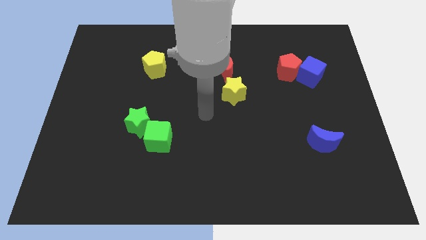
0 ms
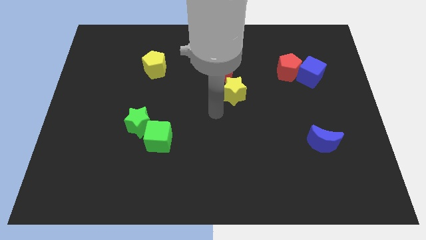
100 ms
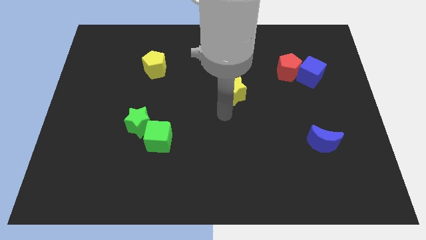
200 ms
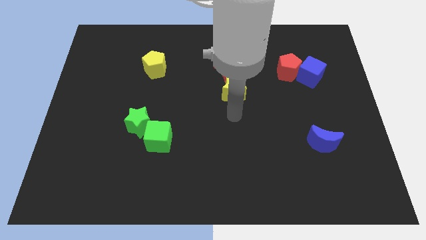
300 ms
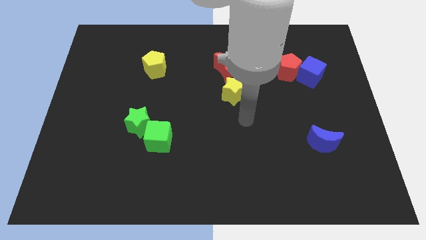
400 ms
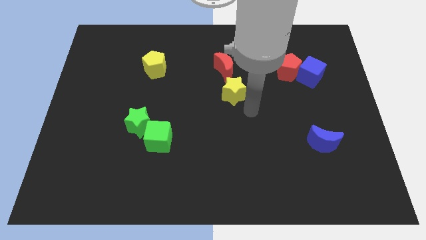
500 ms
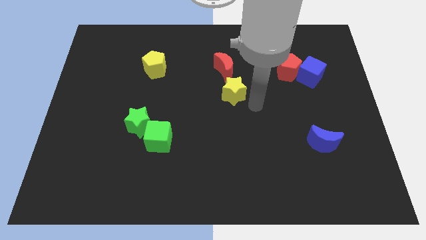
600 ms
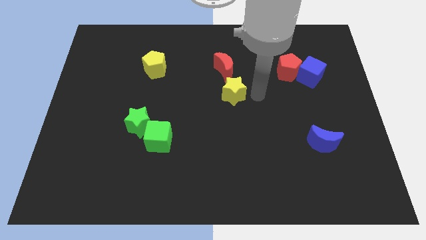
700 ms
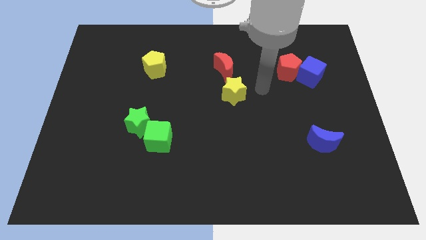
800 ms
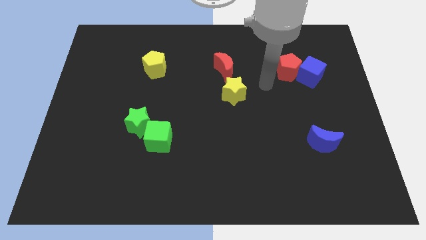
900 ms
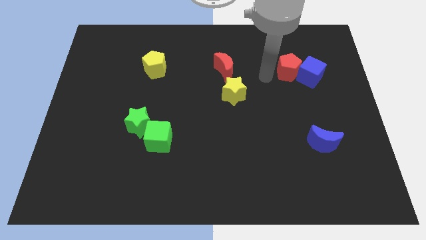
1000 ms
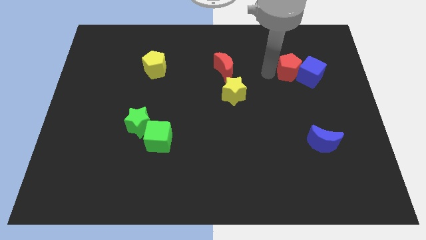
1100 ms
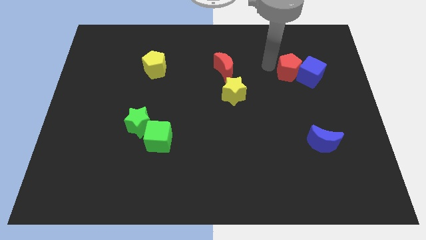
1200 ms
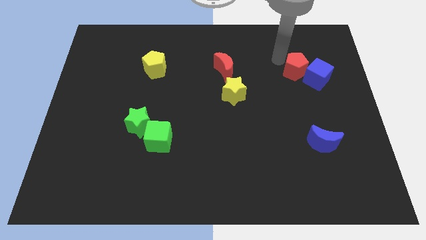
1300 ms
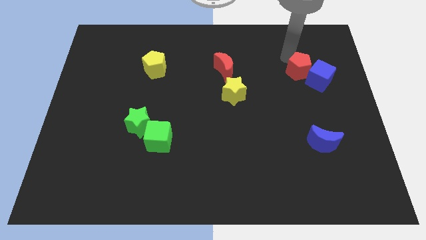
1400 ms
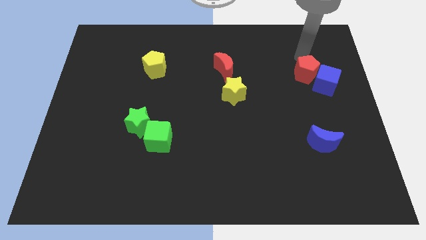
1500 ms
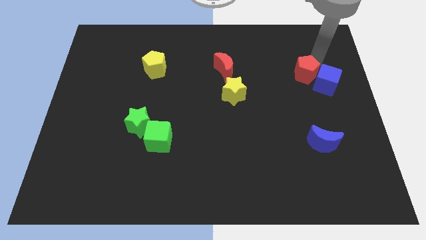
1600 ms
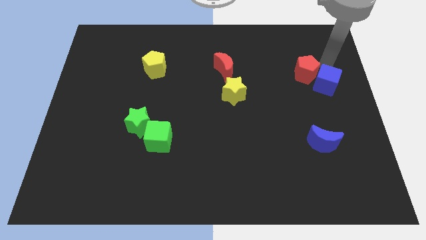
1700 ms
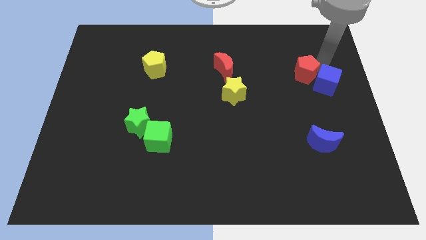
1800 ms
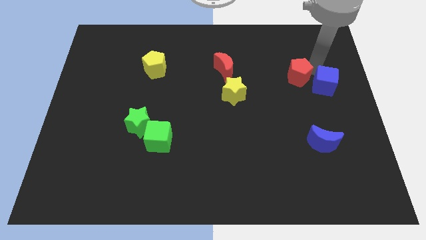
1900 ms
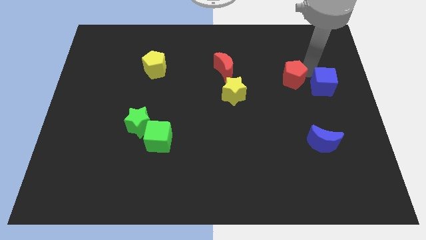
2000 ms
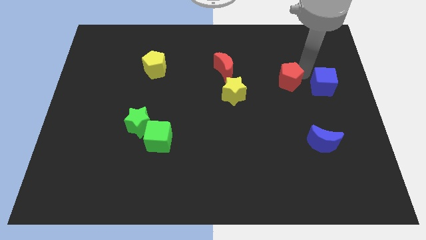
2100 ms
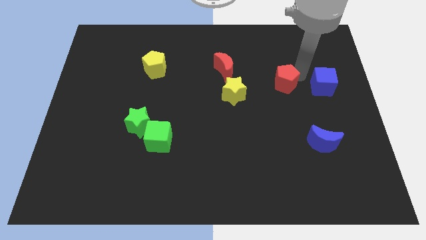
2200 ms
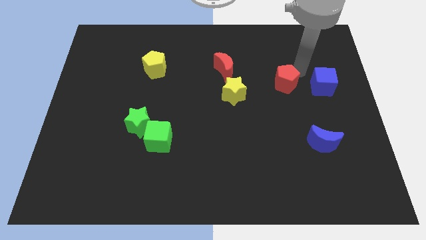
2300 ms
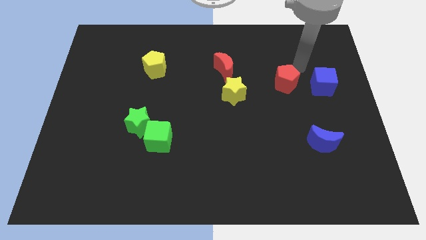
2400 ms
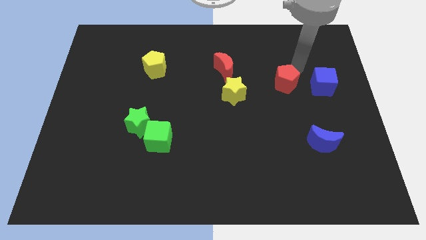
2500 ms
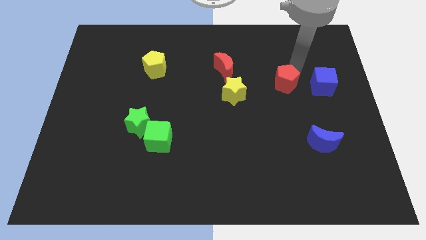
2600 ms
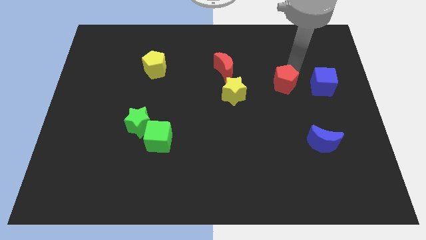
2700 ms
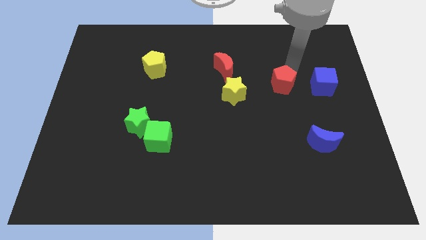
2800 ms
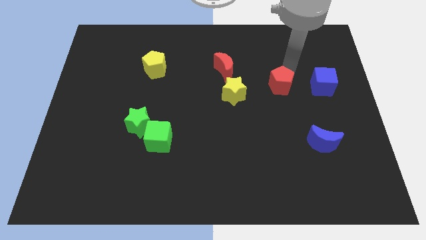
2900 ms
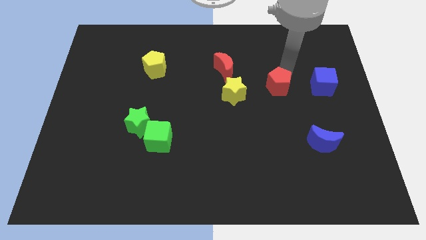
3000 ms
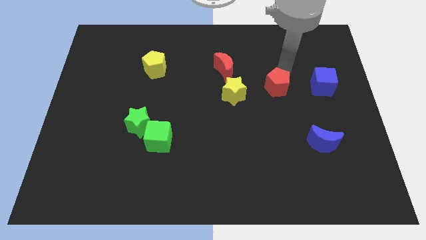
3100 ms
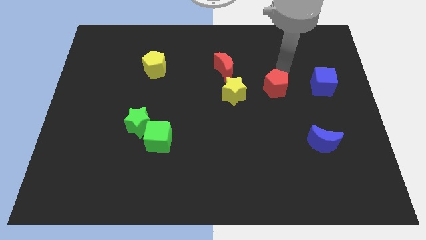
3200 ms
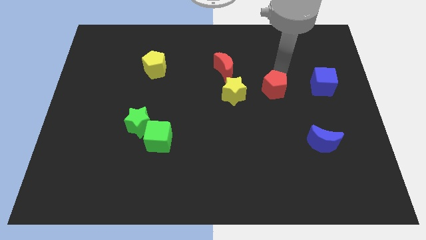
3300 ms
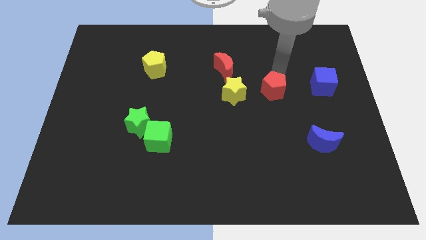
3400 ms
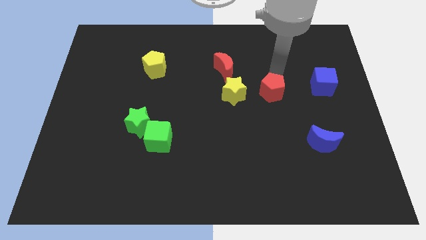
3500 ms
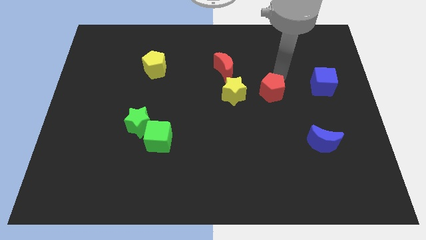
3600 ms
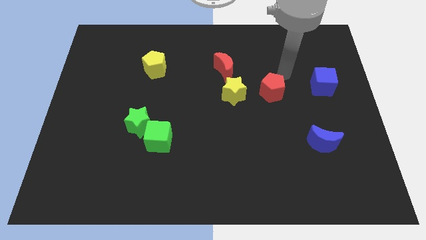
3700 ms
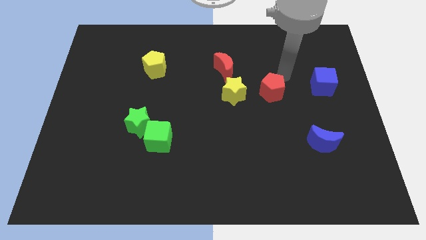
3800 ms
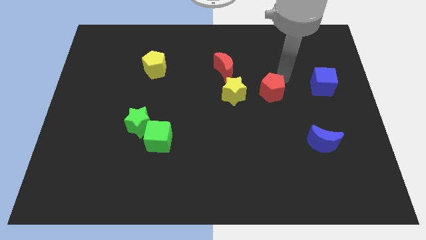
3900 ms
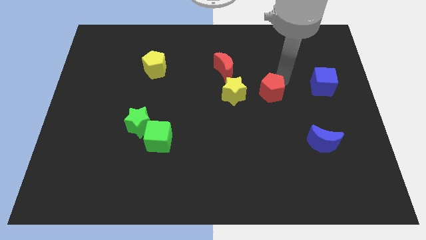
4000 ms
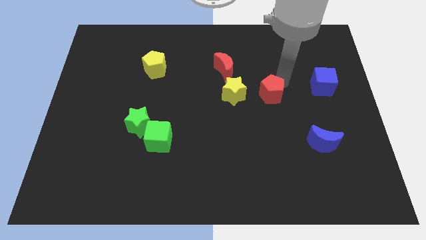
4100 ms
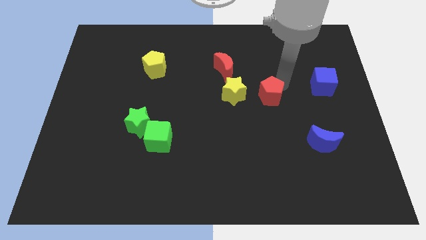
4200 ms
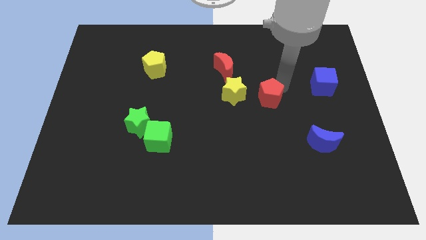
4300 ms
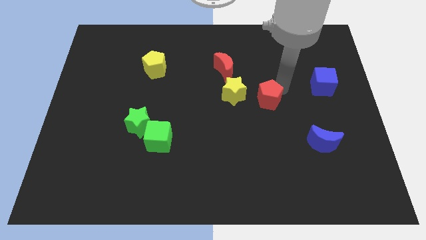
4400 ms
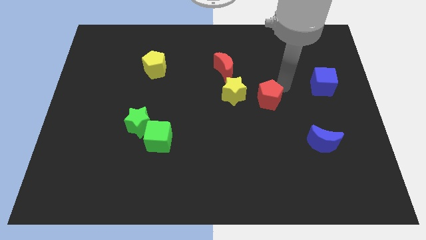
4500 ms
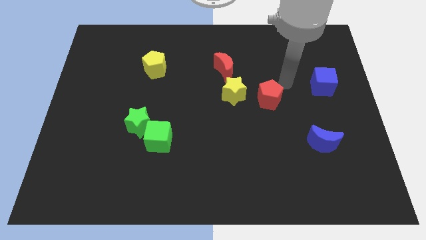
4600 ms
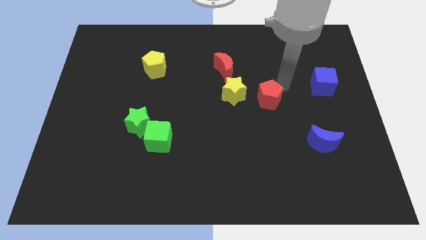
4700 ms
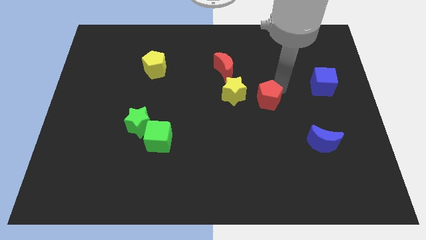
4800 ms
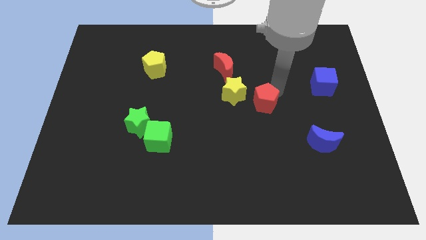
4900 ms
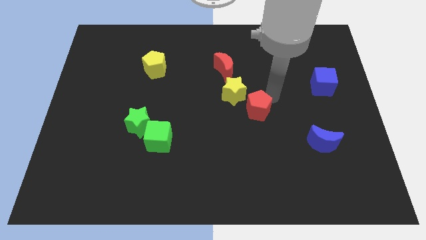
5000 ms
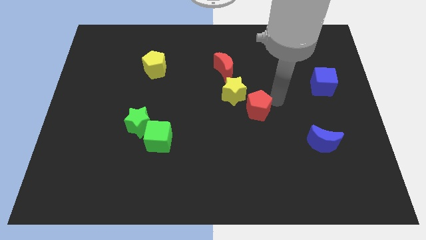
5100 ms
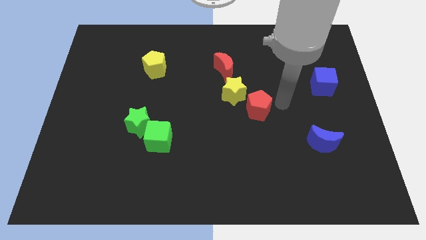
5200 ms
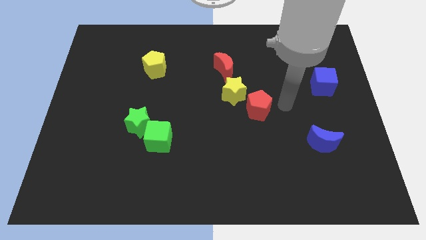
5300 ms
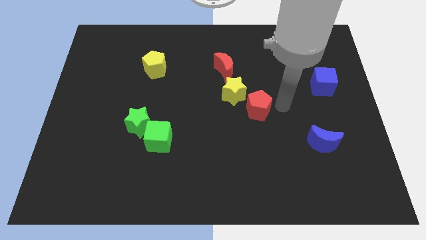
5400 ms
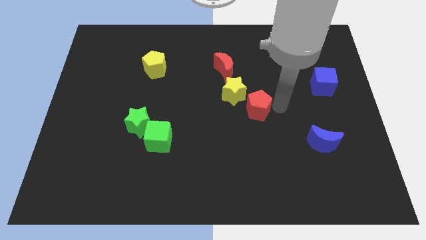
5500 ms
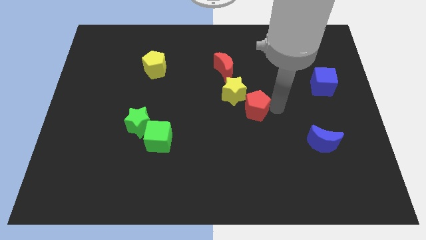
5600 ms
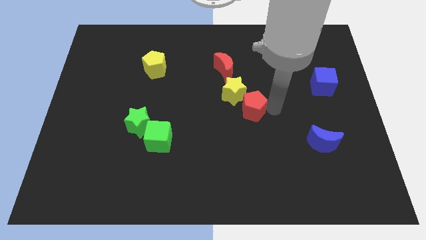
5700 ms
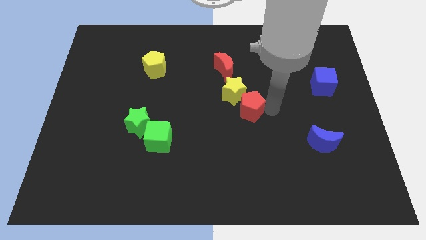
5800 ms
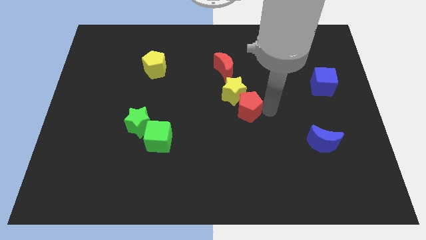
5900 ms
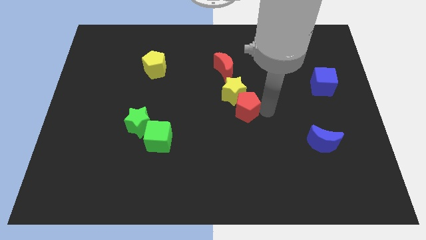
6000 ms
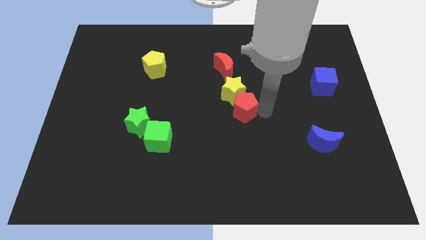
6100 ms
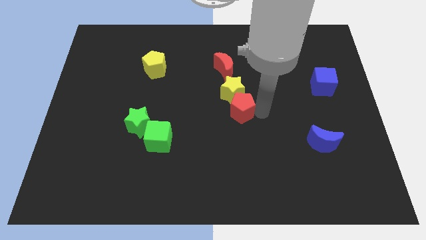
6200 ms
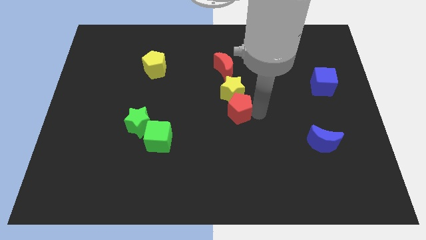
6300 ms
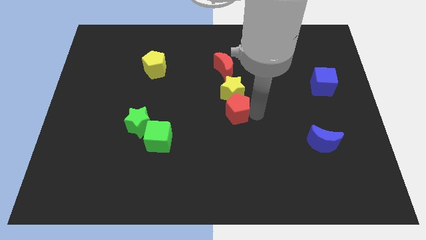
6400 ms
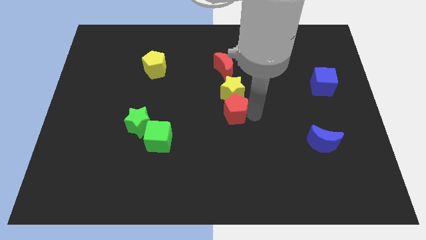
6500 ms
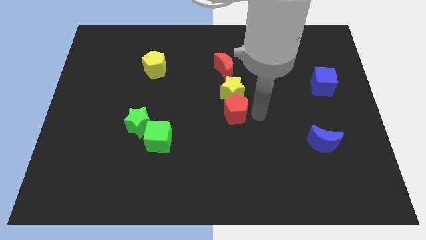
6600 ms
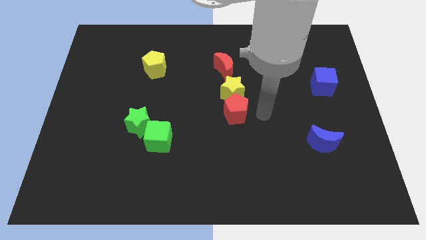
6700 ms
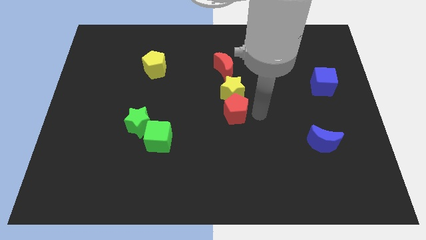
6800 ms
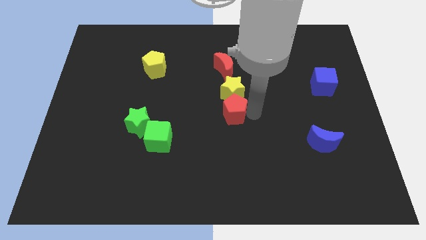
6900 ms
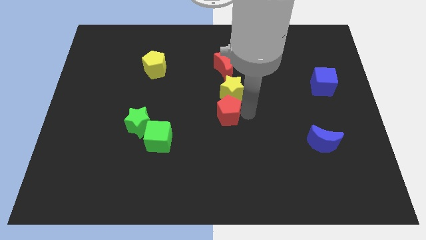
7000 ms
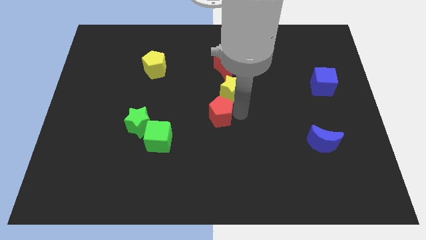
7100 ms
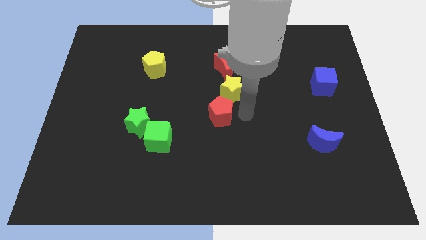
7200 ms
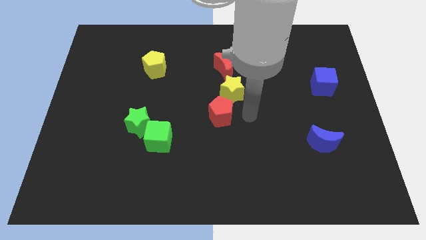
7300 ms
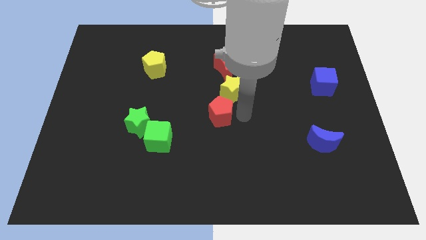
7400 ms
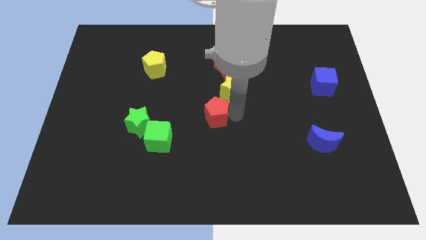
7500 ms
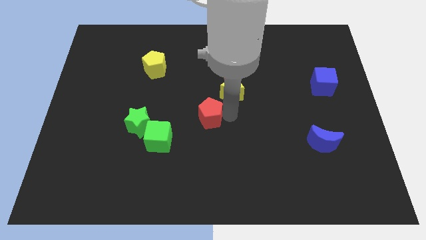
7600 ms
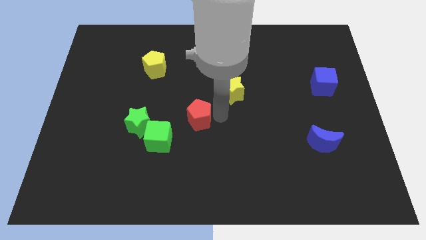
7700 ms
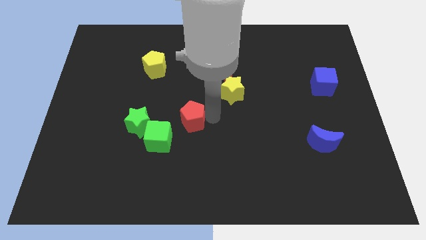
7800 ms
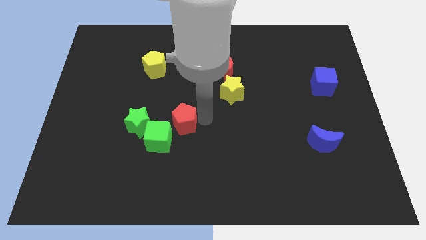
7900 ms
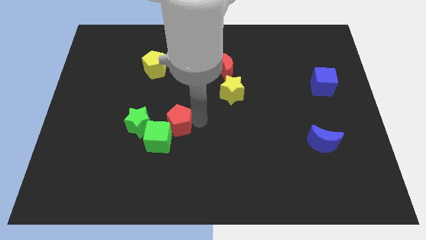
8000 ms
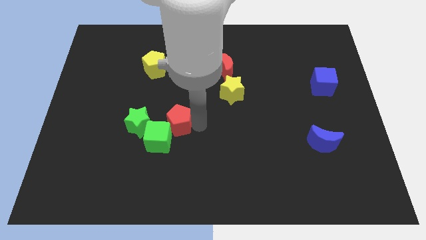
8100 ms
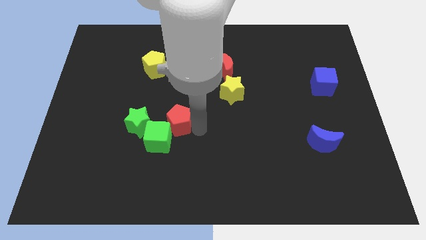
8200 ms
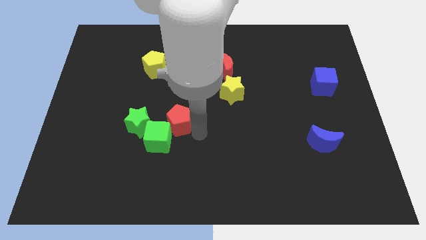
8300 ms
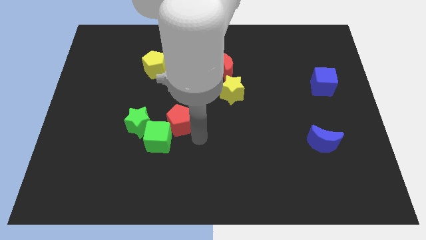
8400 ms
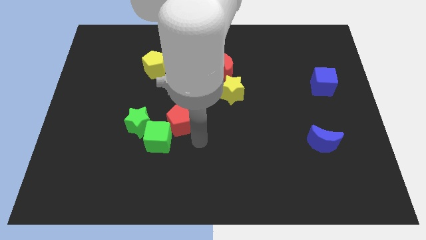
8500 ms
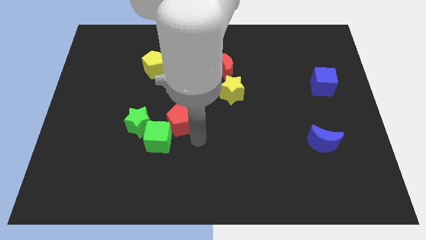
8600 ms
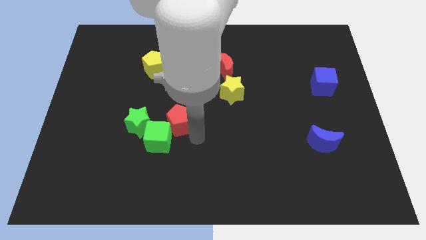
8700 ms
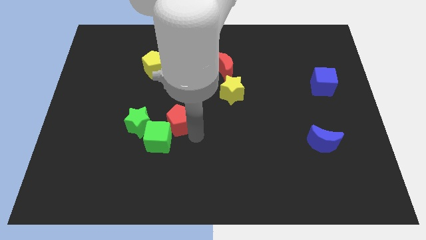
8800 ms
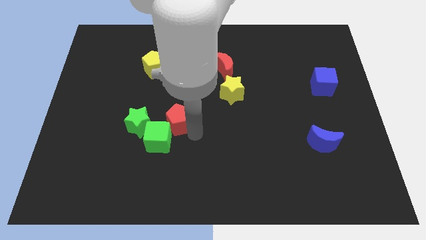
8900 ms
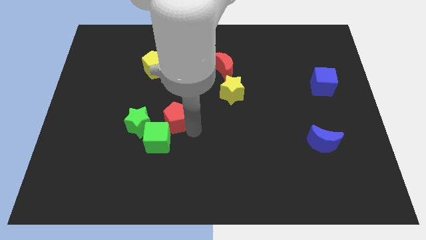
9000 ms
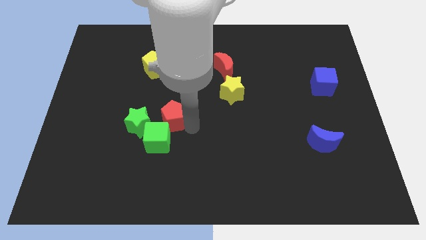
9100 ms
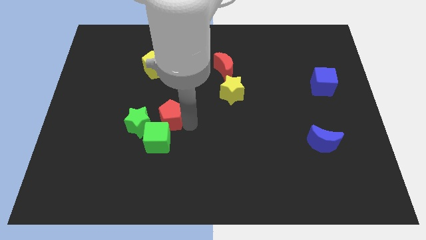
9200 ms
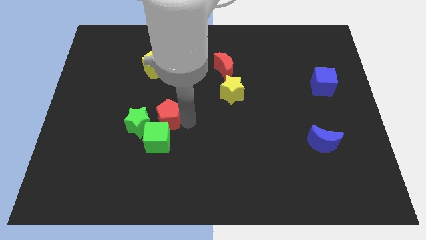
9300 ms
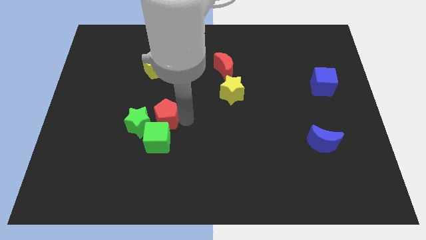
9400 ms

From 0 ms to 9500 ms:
push the red pentagon close to the green star
